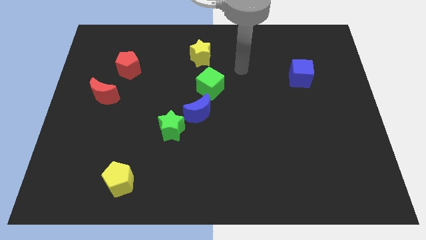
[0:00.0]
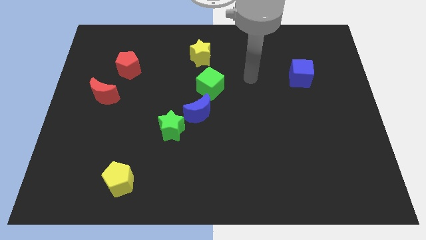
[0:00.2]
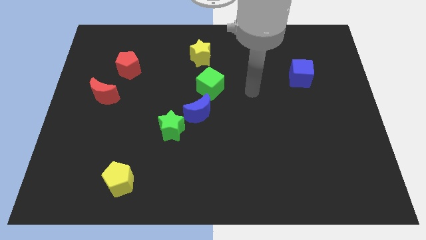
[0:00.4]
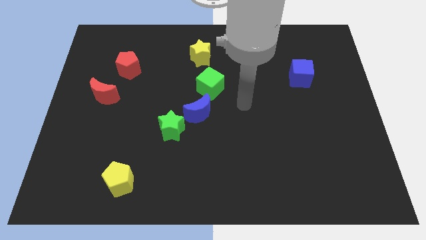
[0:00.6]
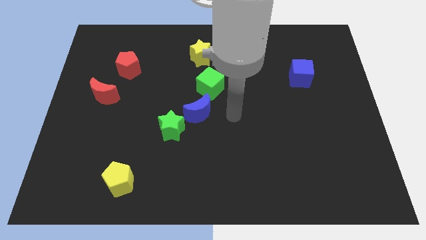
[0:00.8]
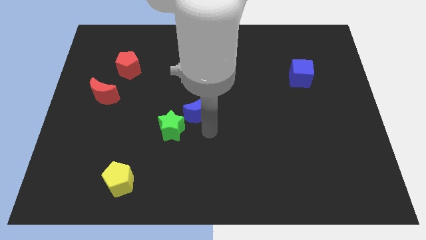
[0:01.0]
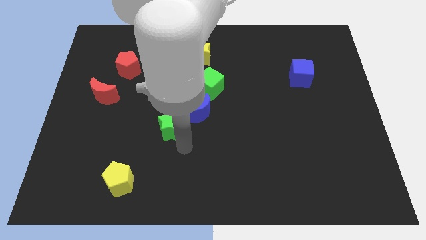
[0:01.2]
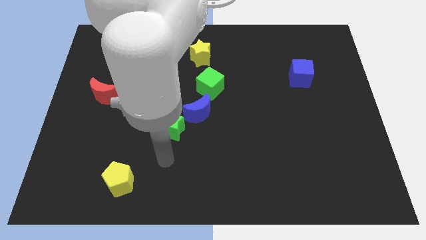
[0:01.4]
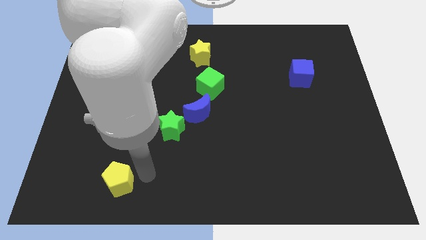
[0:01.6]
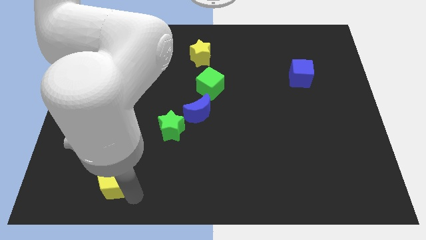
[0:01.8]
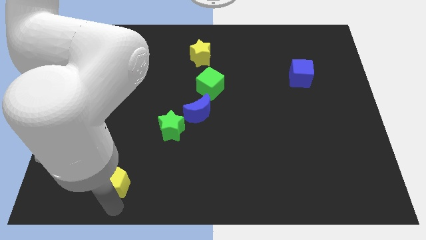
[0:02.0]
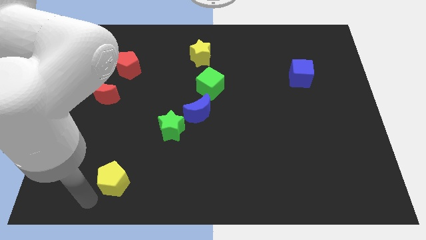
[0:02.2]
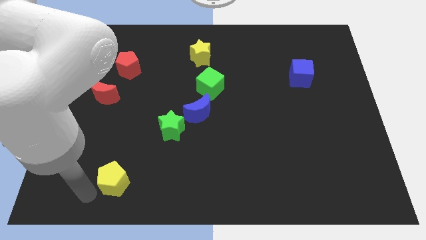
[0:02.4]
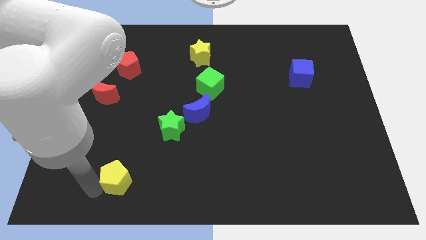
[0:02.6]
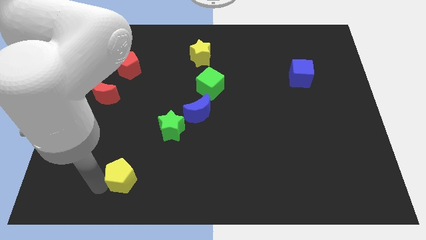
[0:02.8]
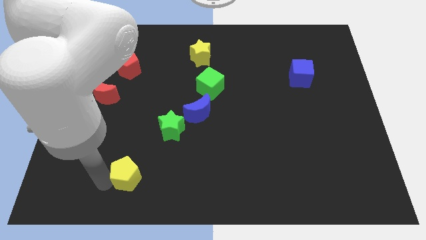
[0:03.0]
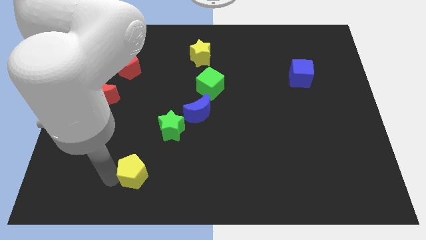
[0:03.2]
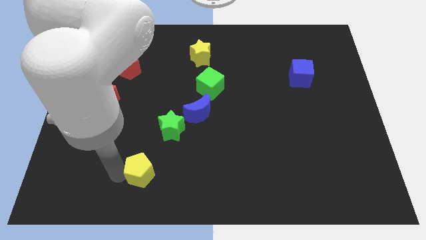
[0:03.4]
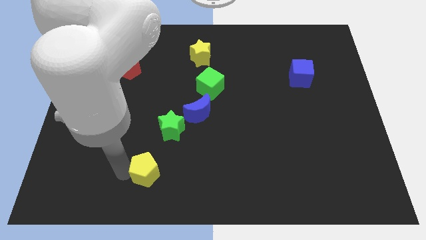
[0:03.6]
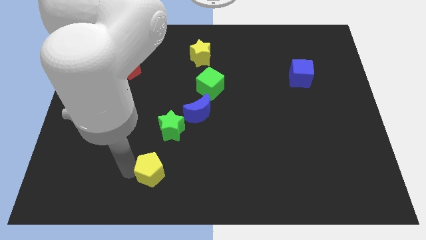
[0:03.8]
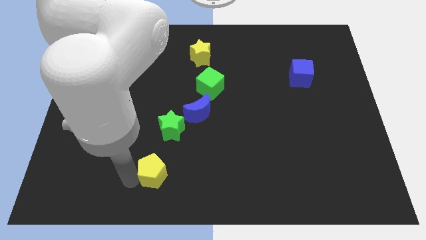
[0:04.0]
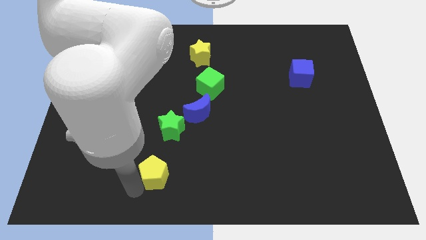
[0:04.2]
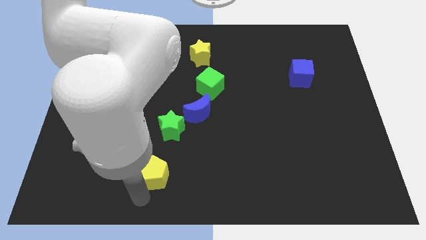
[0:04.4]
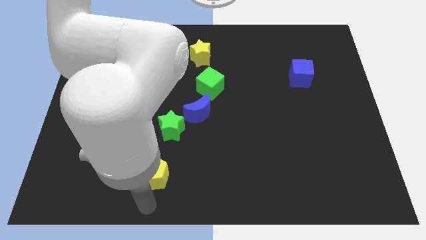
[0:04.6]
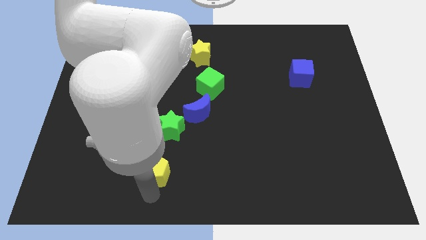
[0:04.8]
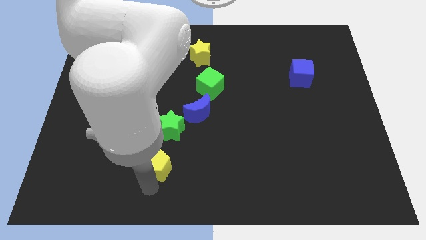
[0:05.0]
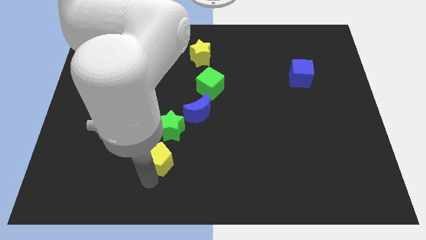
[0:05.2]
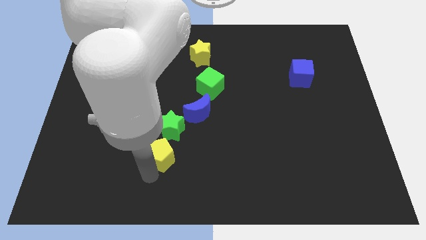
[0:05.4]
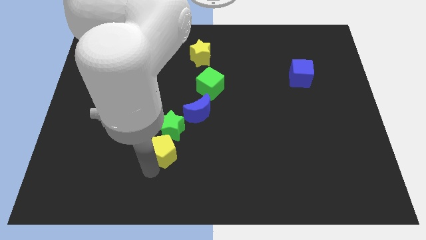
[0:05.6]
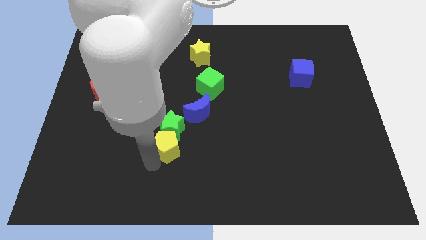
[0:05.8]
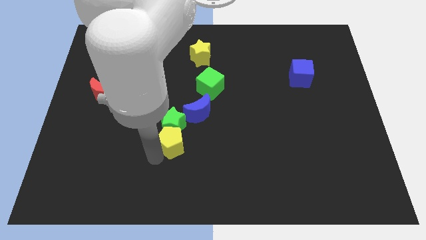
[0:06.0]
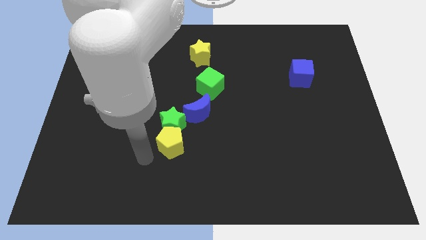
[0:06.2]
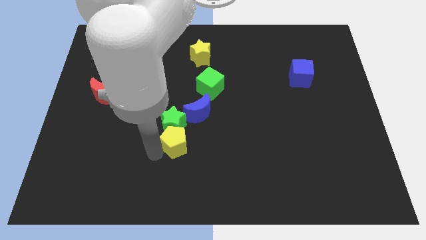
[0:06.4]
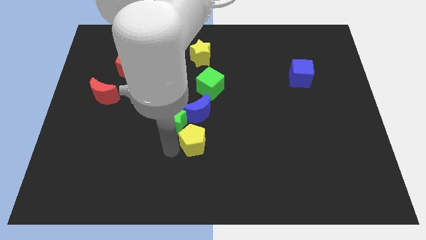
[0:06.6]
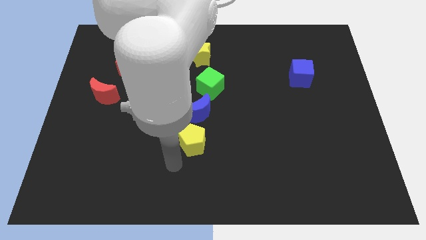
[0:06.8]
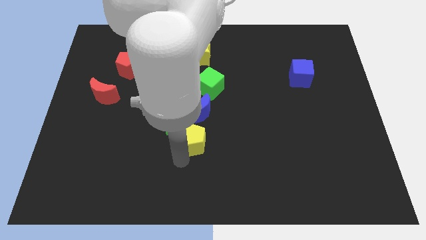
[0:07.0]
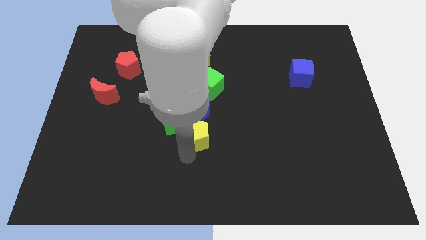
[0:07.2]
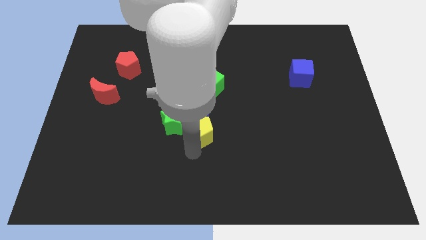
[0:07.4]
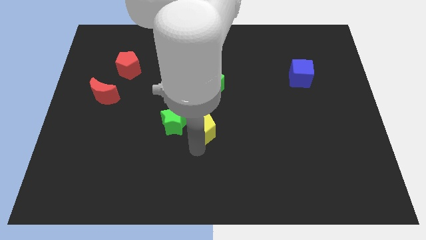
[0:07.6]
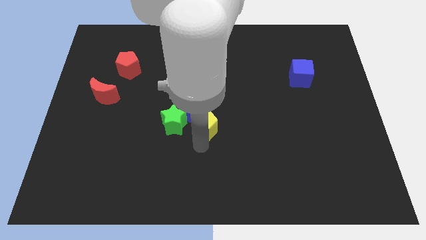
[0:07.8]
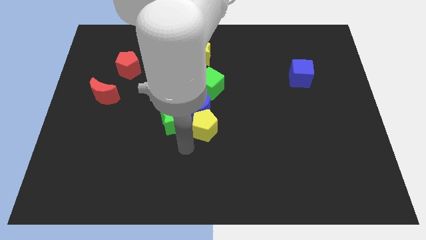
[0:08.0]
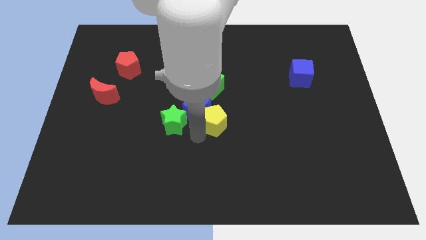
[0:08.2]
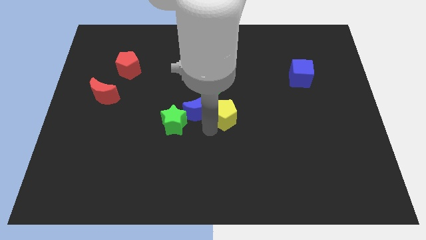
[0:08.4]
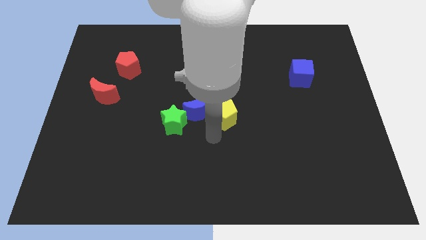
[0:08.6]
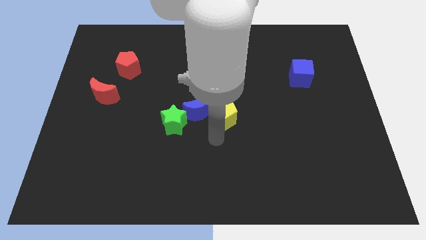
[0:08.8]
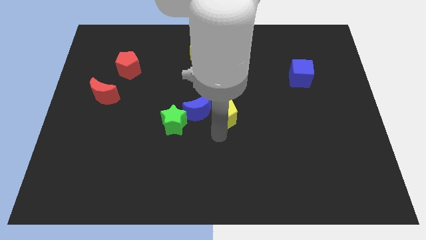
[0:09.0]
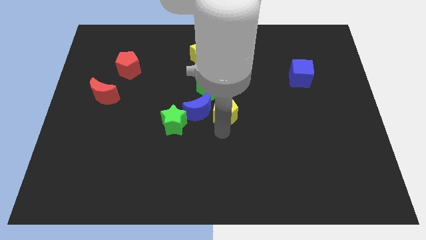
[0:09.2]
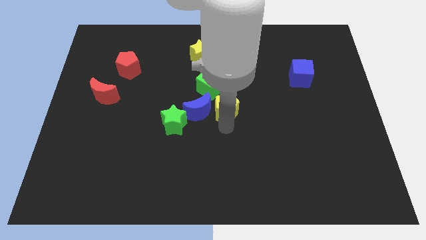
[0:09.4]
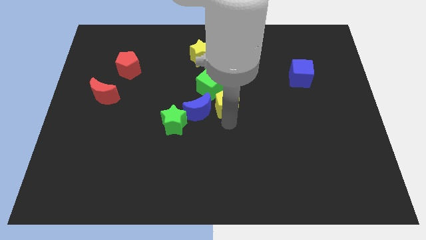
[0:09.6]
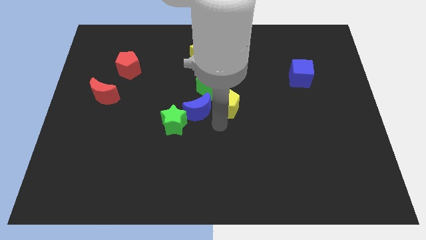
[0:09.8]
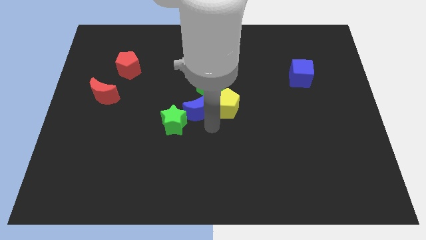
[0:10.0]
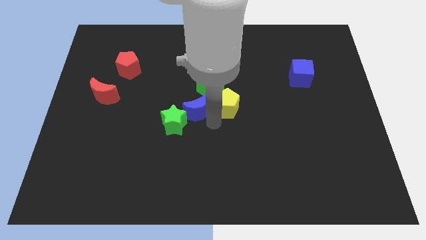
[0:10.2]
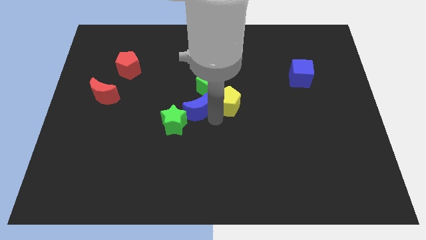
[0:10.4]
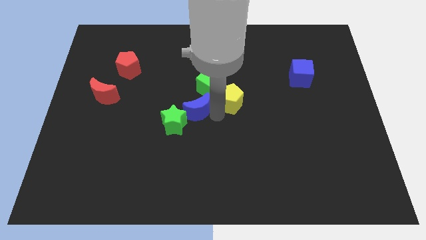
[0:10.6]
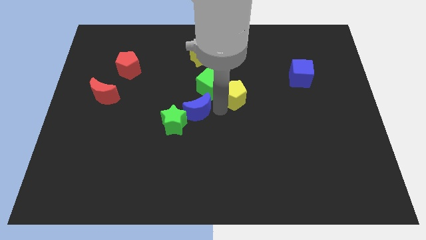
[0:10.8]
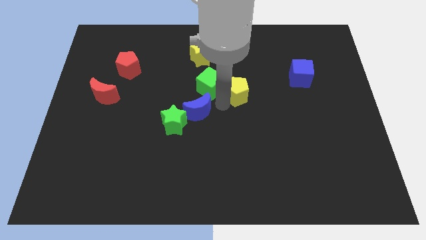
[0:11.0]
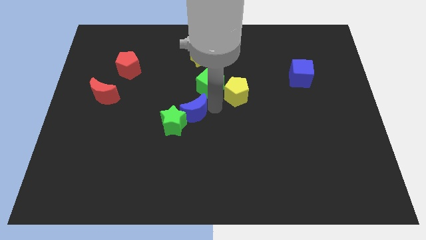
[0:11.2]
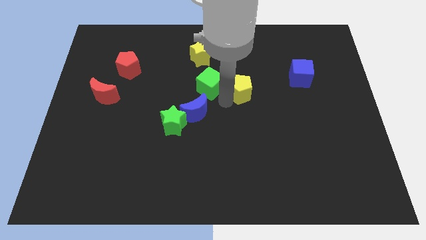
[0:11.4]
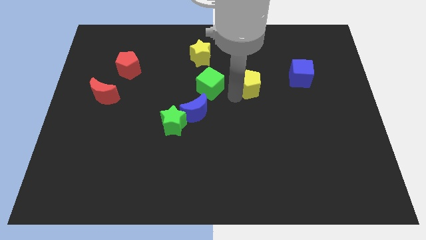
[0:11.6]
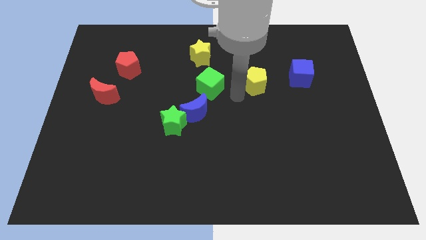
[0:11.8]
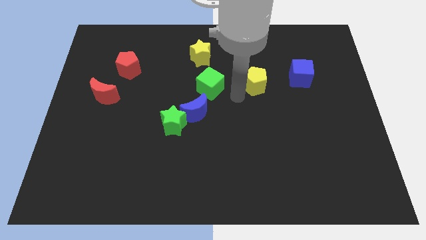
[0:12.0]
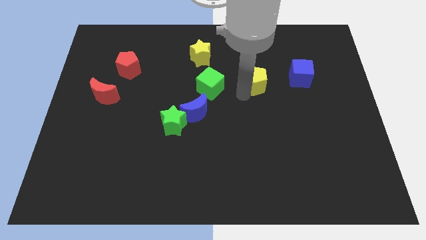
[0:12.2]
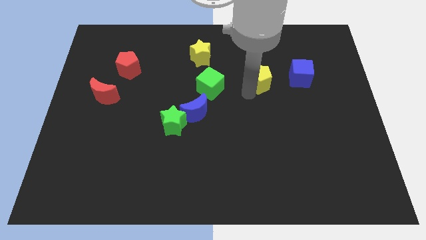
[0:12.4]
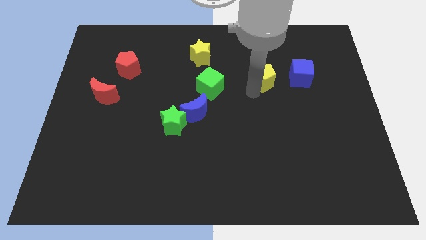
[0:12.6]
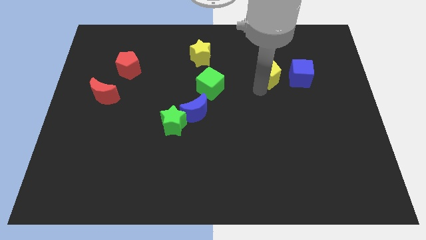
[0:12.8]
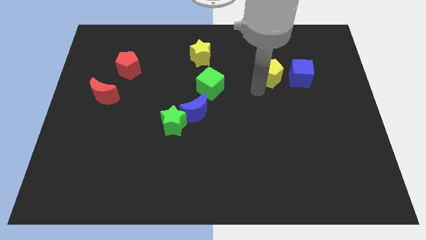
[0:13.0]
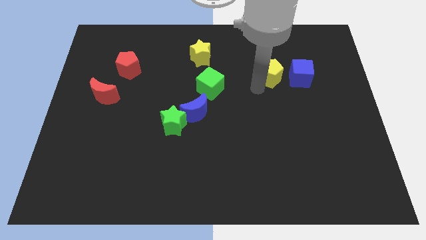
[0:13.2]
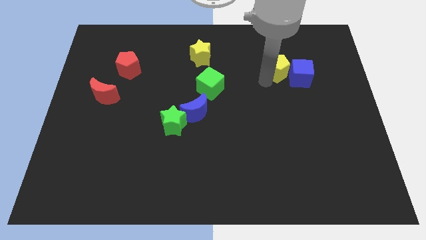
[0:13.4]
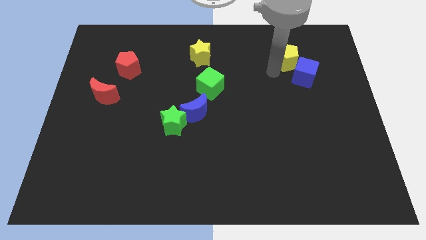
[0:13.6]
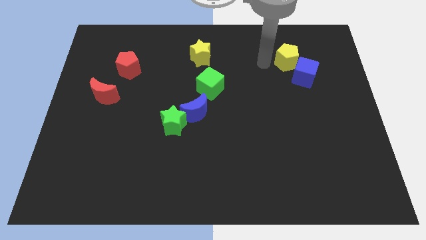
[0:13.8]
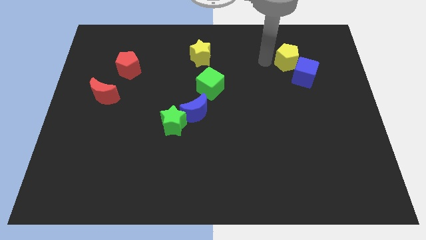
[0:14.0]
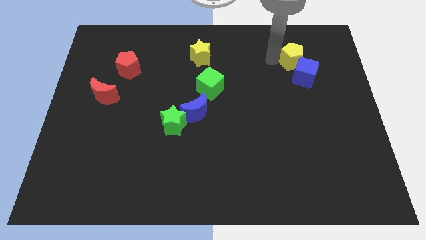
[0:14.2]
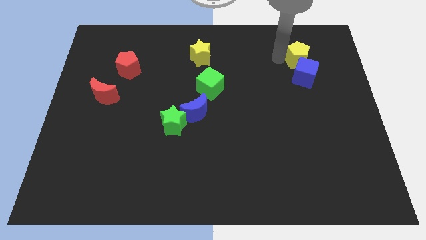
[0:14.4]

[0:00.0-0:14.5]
push the yellow pentagon diagonally up and to the right of the blue cube
